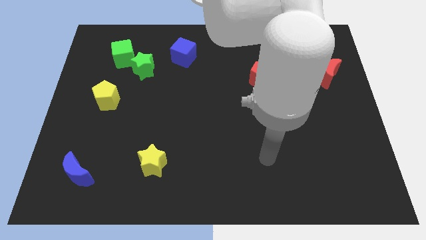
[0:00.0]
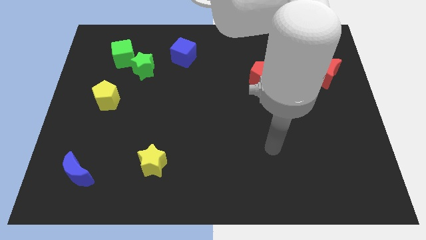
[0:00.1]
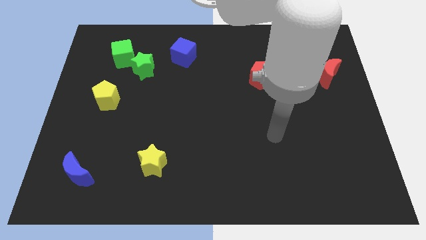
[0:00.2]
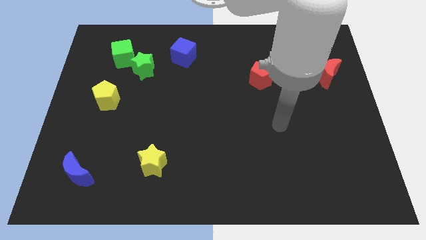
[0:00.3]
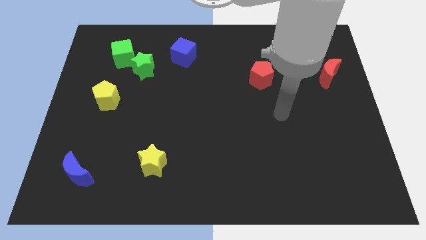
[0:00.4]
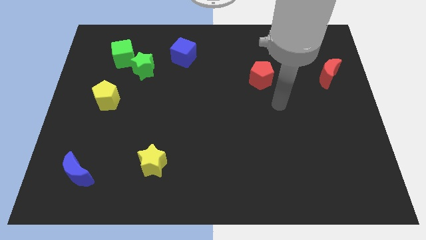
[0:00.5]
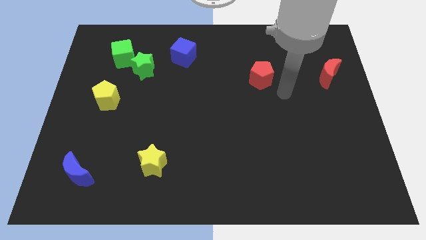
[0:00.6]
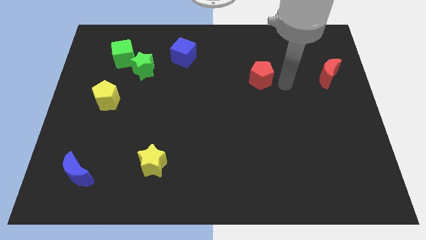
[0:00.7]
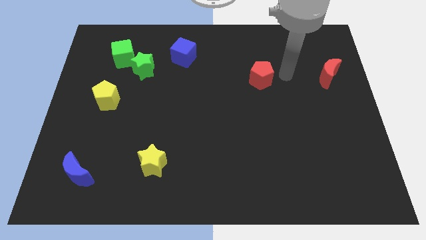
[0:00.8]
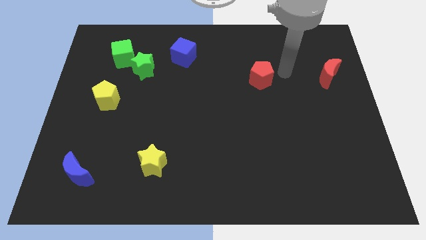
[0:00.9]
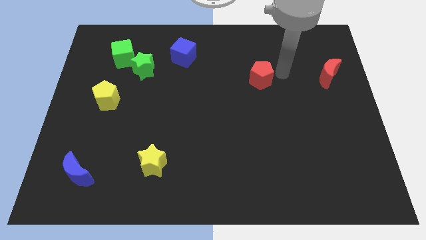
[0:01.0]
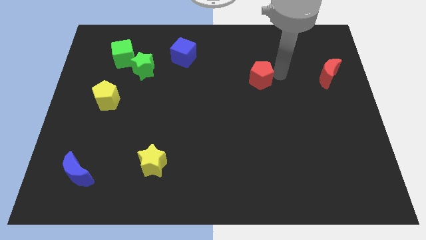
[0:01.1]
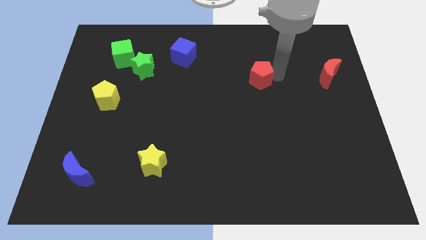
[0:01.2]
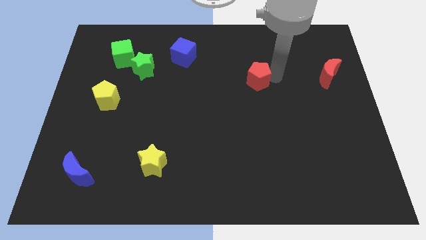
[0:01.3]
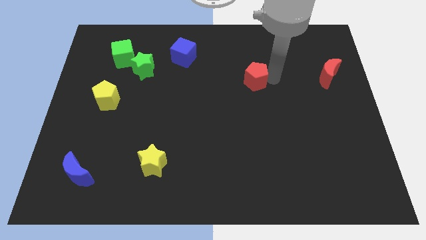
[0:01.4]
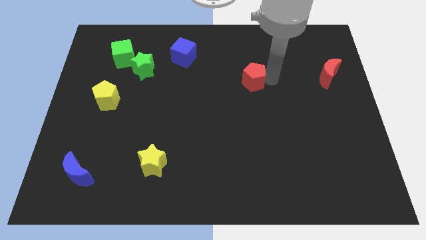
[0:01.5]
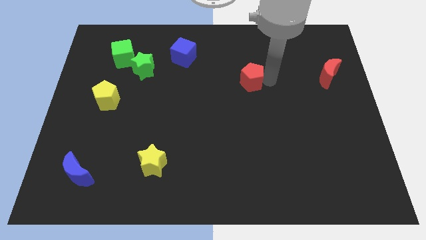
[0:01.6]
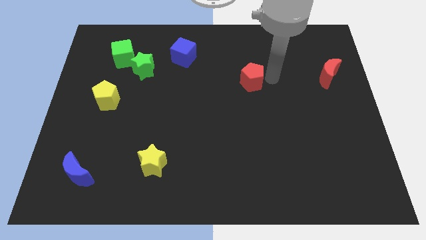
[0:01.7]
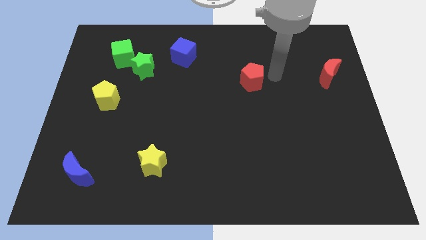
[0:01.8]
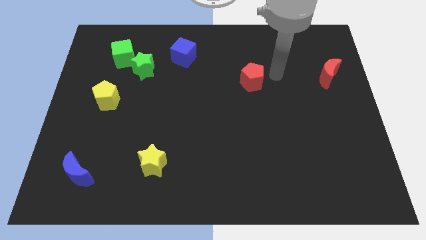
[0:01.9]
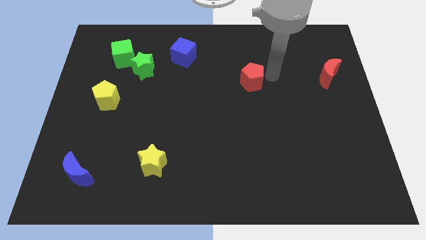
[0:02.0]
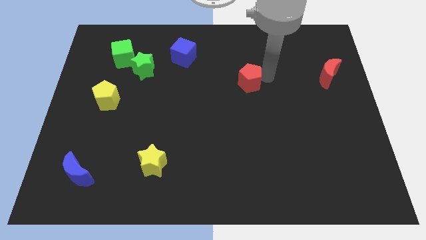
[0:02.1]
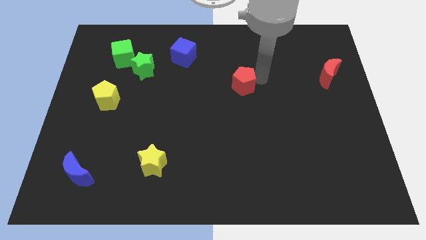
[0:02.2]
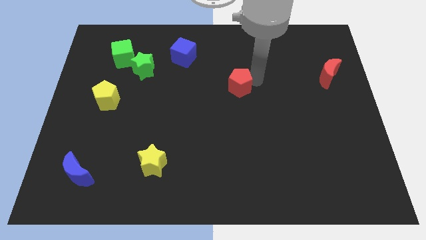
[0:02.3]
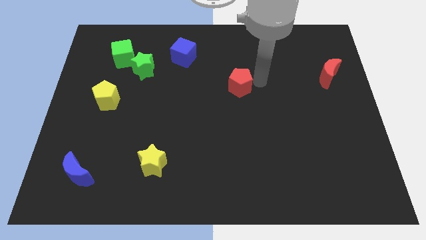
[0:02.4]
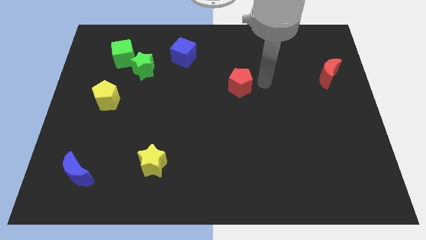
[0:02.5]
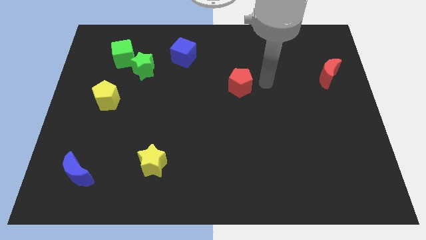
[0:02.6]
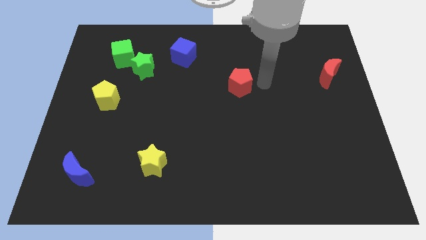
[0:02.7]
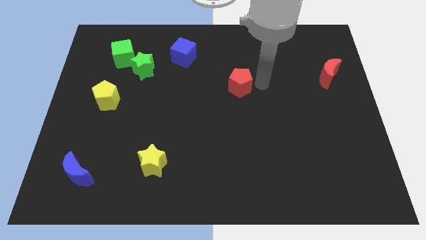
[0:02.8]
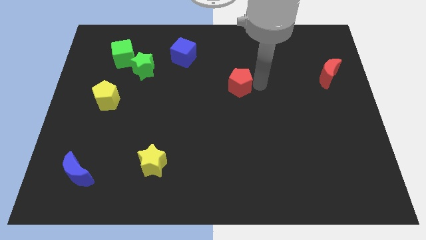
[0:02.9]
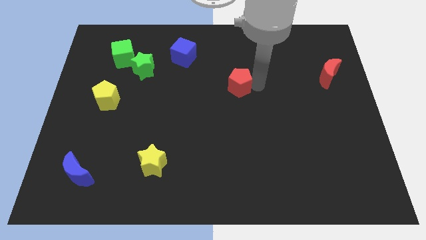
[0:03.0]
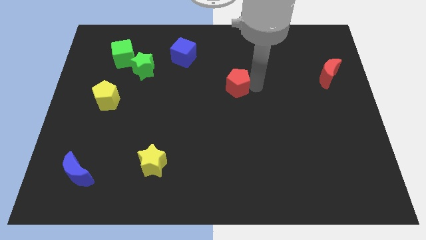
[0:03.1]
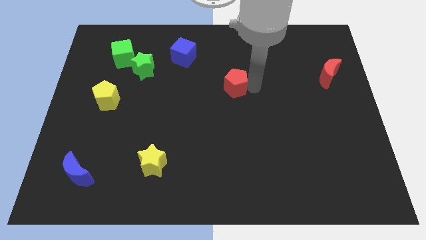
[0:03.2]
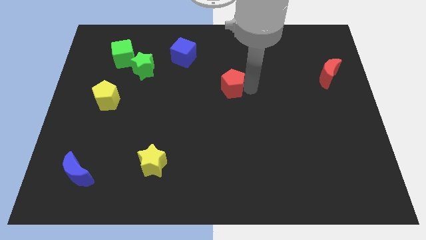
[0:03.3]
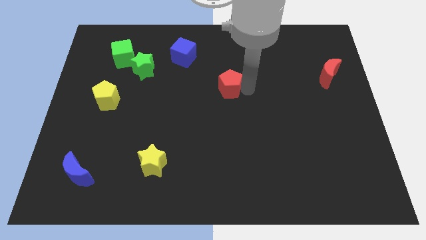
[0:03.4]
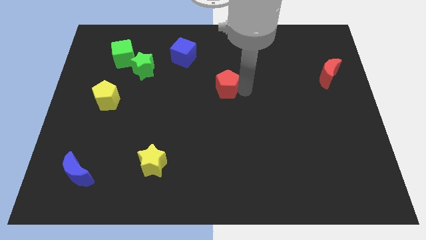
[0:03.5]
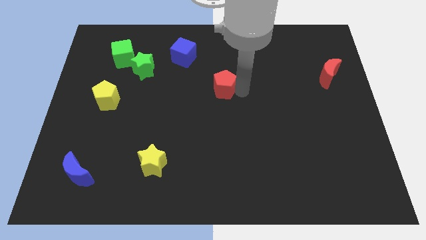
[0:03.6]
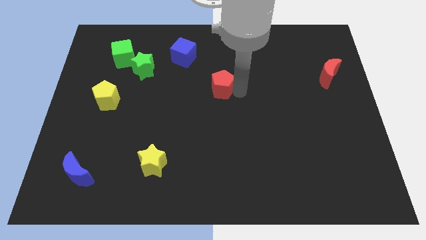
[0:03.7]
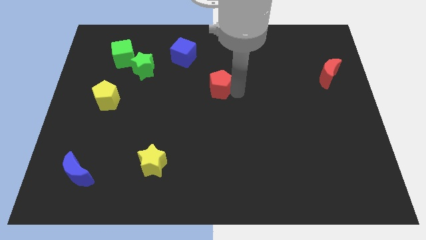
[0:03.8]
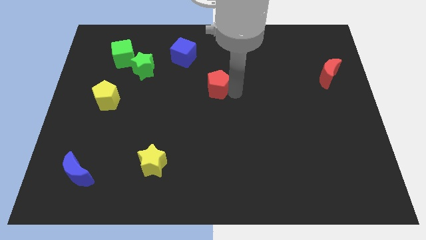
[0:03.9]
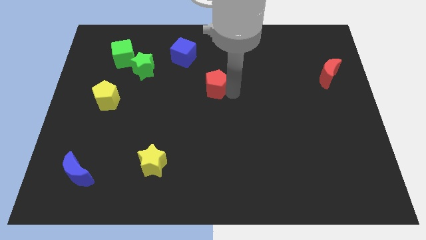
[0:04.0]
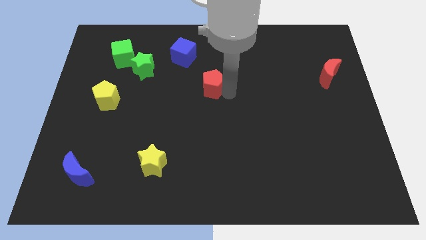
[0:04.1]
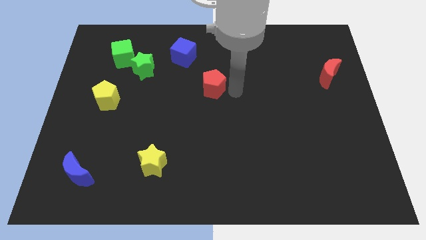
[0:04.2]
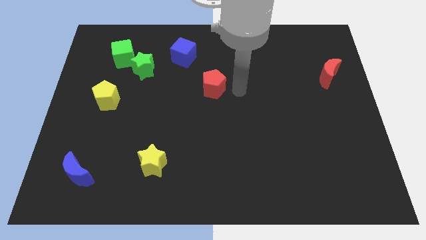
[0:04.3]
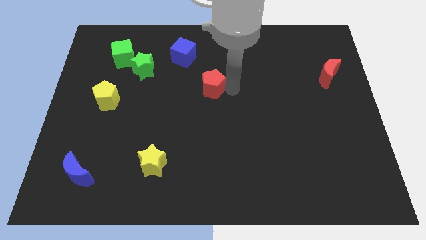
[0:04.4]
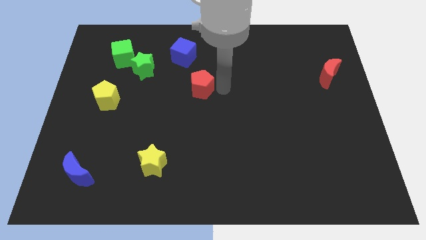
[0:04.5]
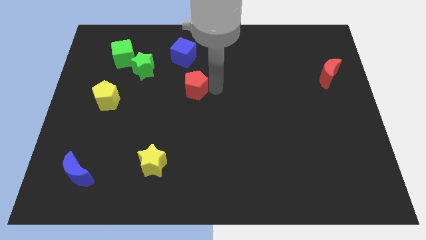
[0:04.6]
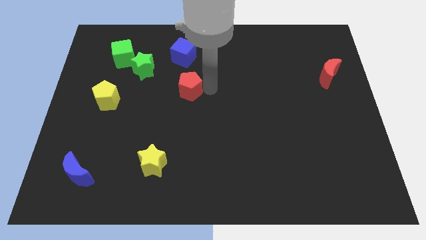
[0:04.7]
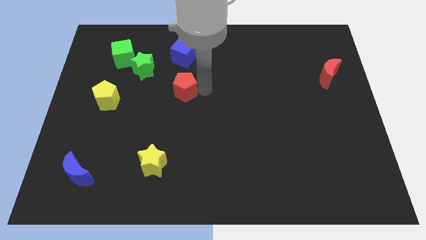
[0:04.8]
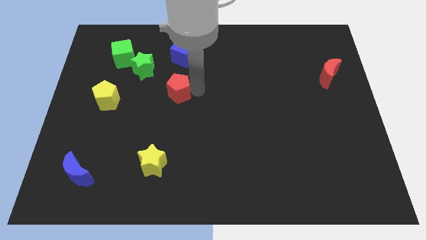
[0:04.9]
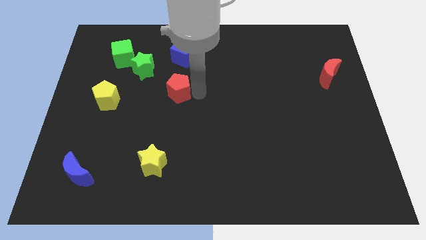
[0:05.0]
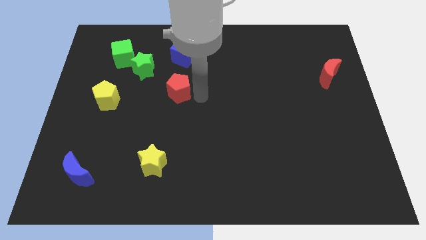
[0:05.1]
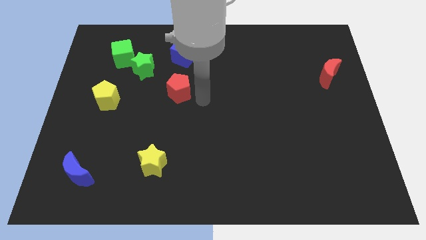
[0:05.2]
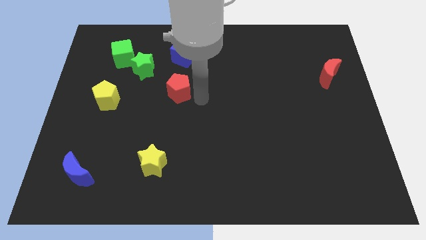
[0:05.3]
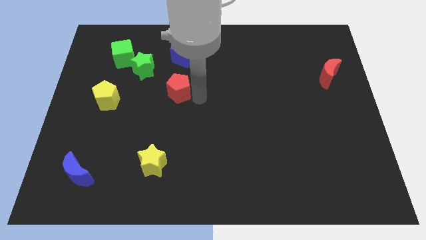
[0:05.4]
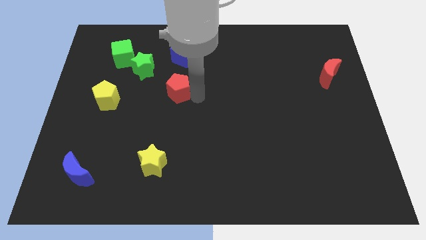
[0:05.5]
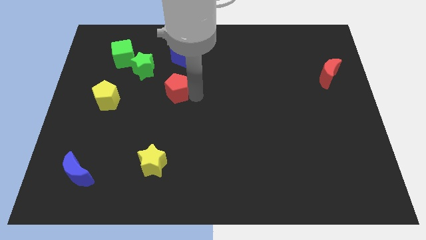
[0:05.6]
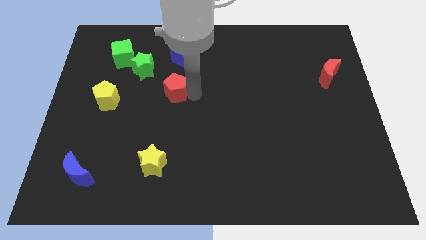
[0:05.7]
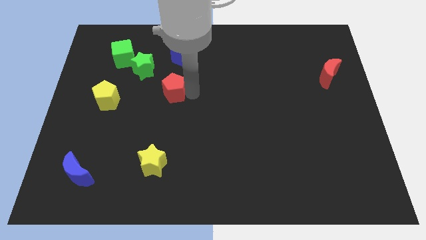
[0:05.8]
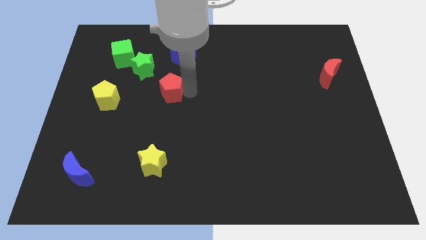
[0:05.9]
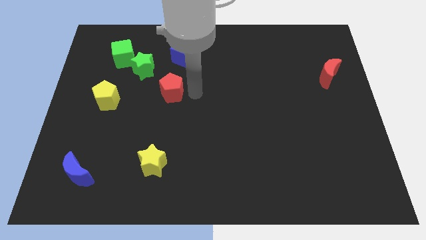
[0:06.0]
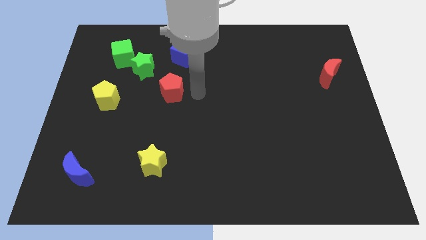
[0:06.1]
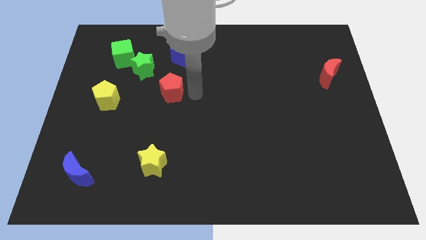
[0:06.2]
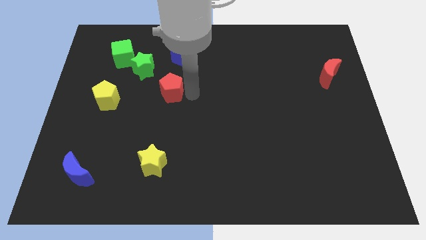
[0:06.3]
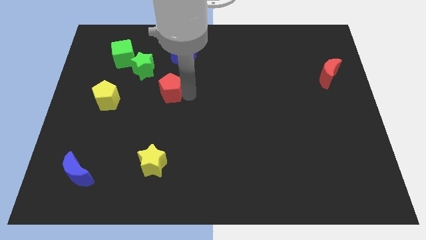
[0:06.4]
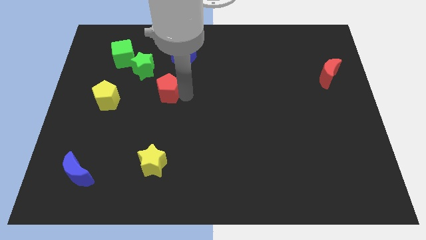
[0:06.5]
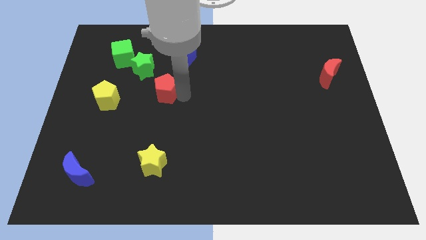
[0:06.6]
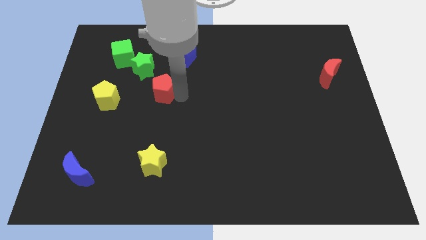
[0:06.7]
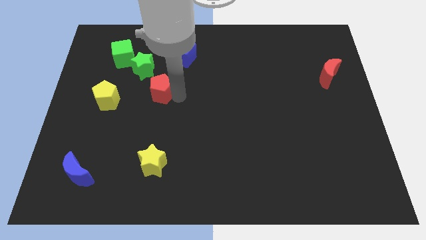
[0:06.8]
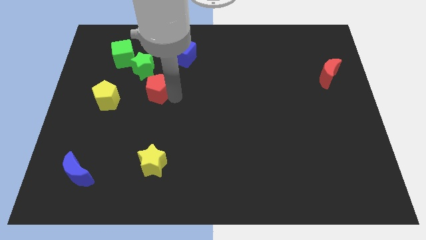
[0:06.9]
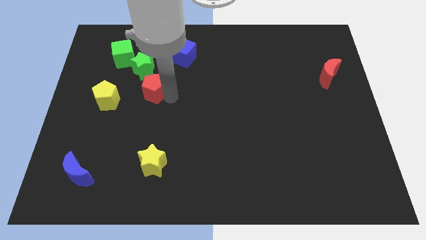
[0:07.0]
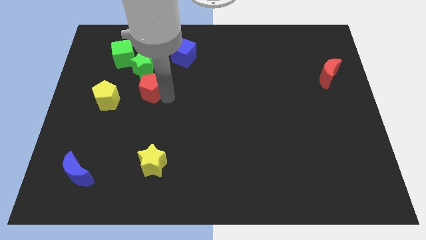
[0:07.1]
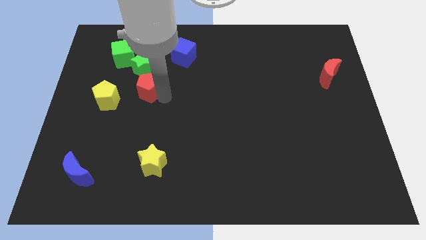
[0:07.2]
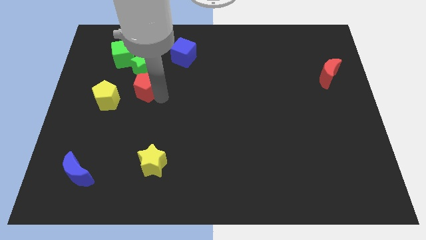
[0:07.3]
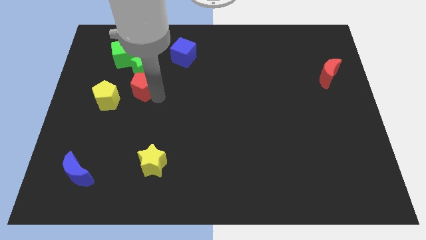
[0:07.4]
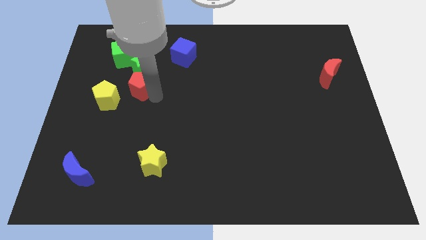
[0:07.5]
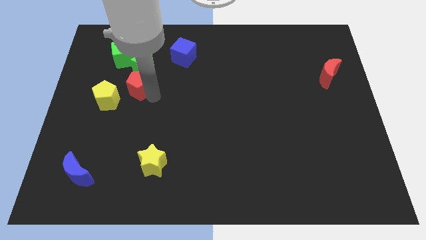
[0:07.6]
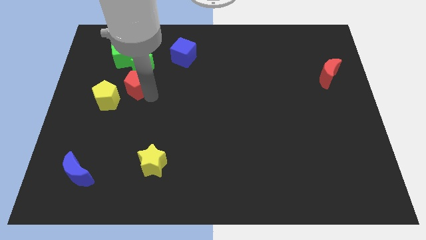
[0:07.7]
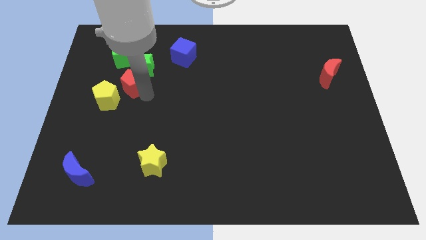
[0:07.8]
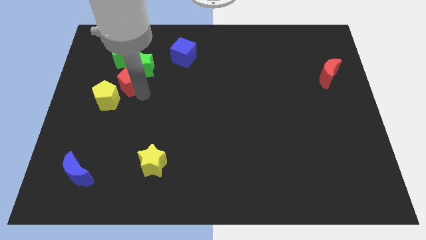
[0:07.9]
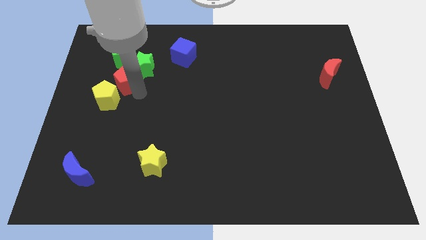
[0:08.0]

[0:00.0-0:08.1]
move the red pentagon left of the green star
